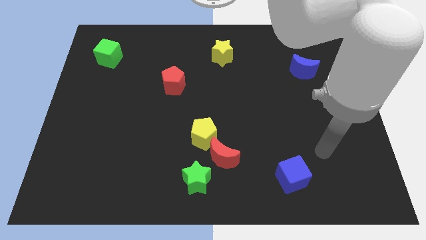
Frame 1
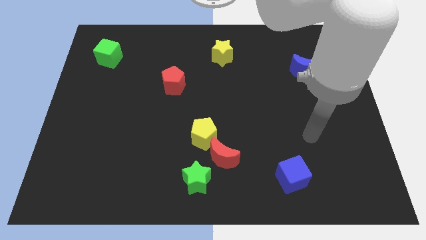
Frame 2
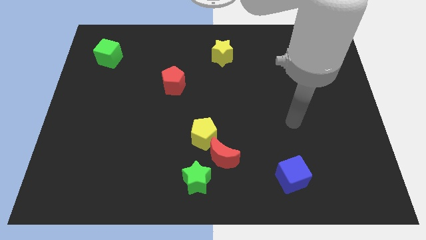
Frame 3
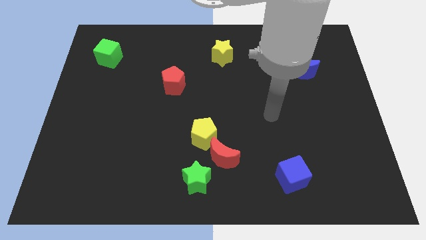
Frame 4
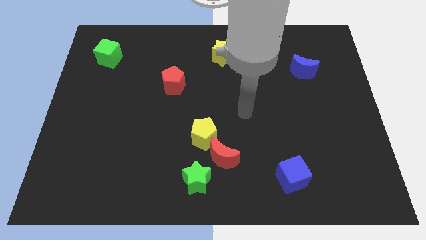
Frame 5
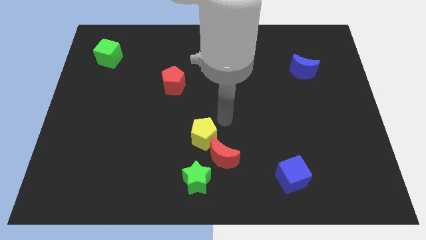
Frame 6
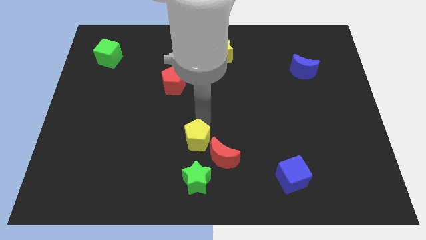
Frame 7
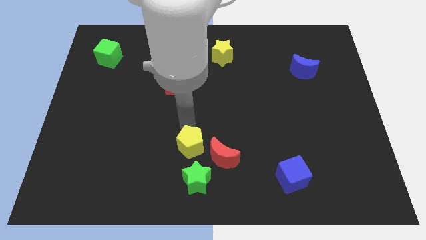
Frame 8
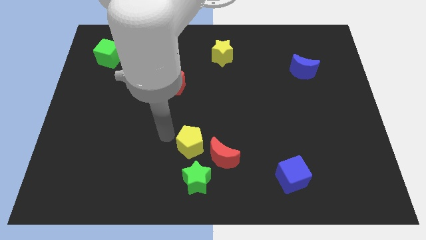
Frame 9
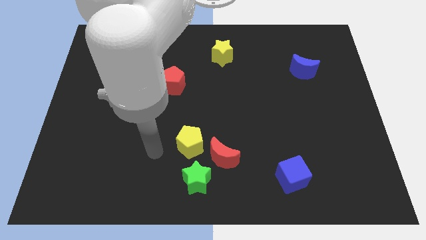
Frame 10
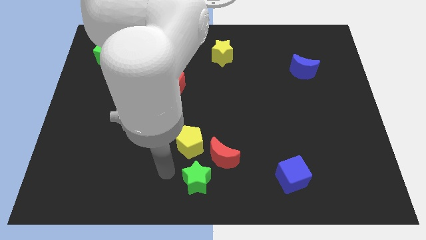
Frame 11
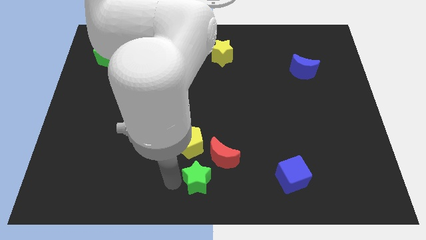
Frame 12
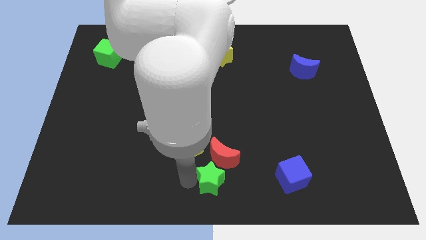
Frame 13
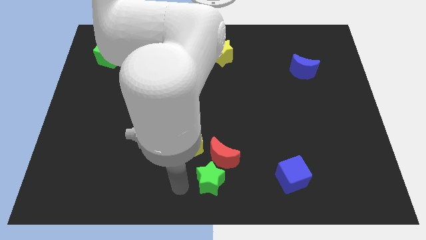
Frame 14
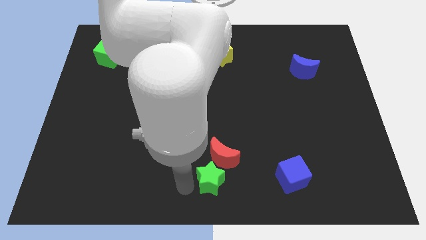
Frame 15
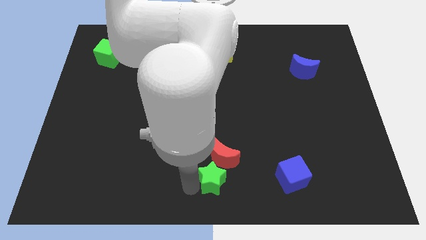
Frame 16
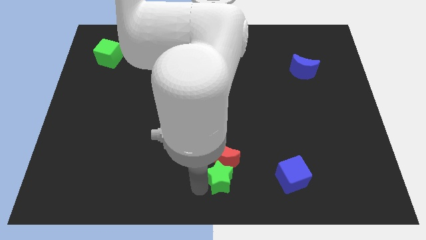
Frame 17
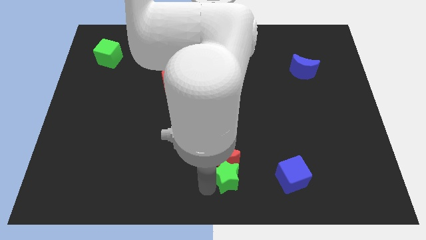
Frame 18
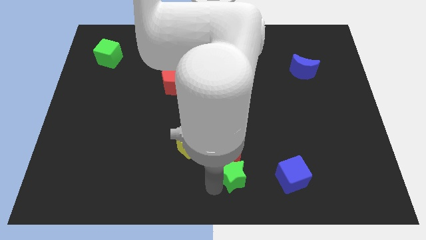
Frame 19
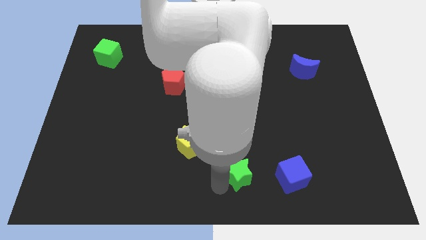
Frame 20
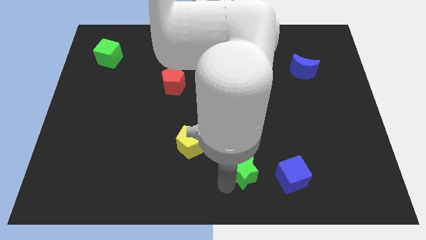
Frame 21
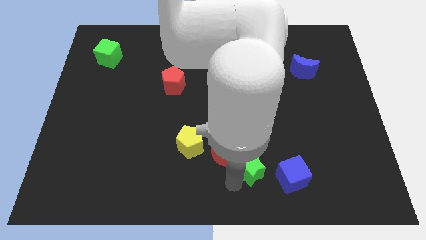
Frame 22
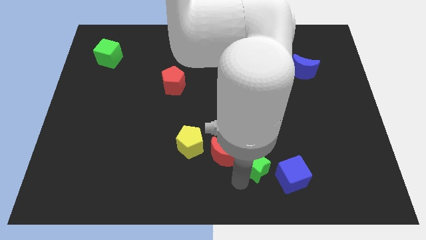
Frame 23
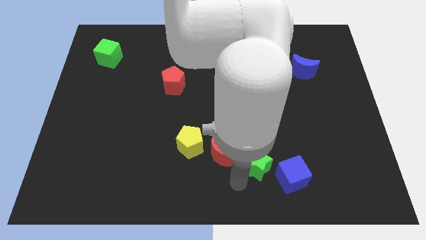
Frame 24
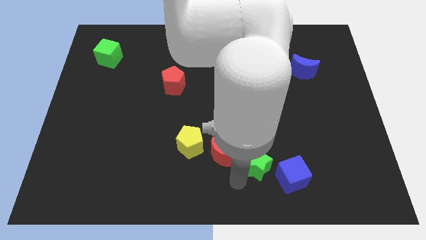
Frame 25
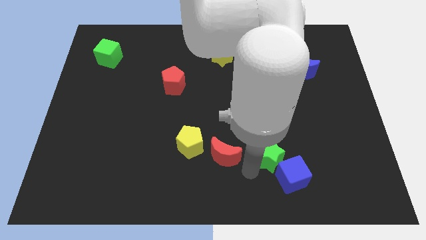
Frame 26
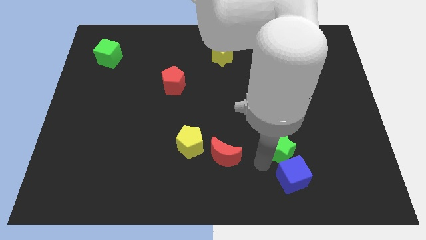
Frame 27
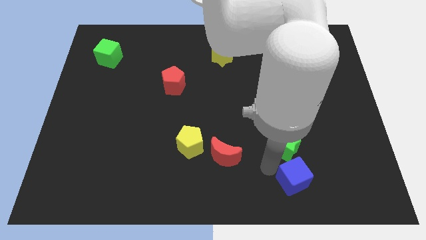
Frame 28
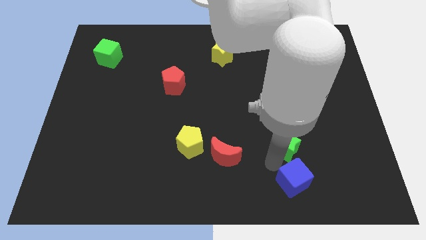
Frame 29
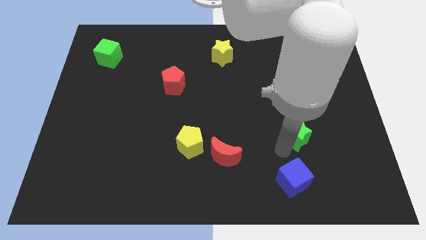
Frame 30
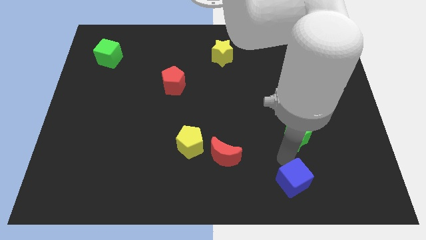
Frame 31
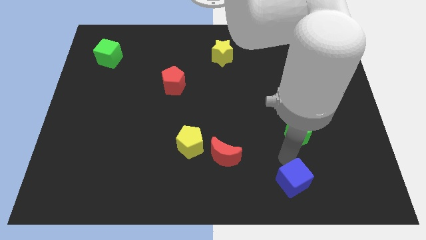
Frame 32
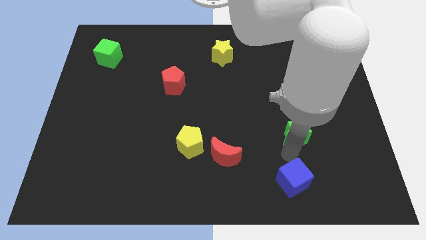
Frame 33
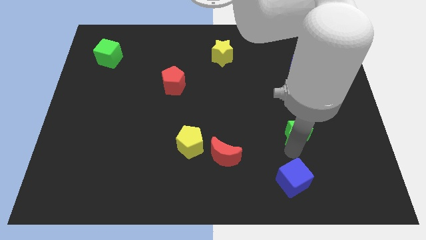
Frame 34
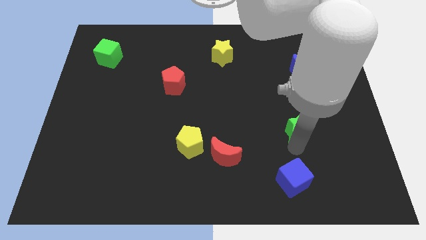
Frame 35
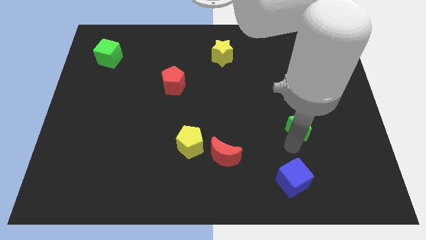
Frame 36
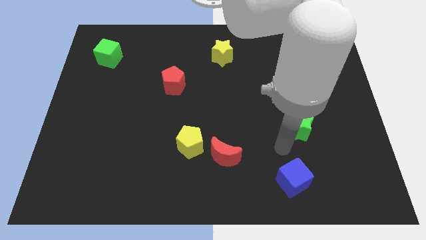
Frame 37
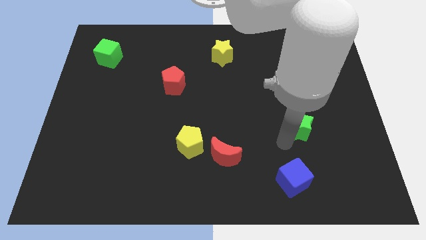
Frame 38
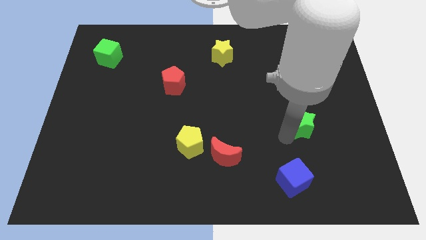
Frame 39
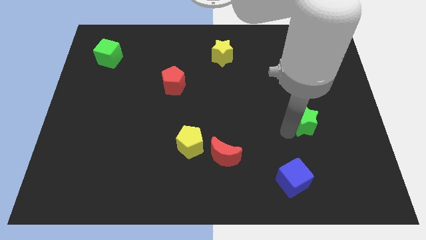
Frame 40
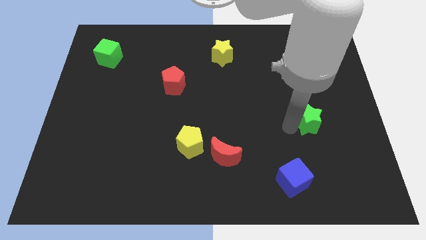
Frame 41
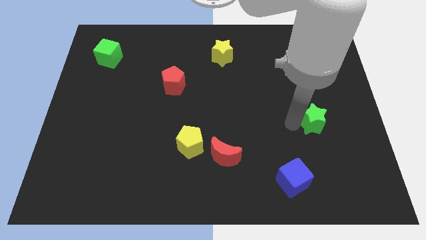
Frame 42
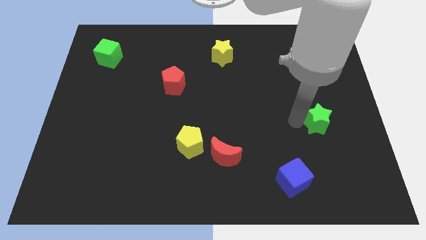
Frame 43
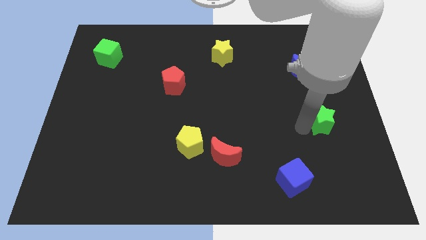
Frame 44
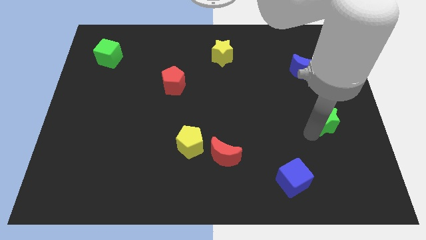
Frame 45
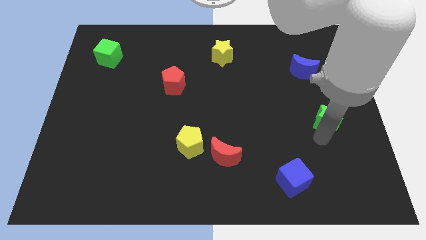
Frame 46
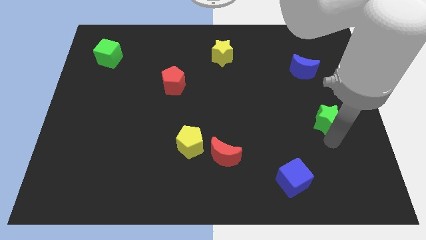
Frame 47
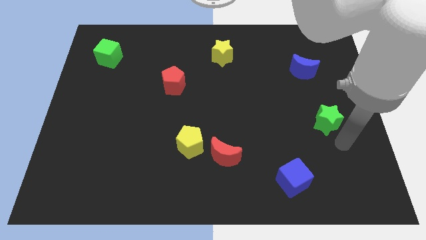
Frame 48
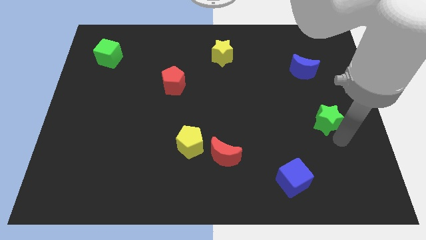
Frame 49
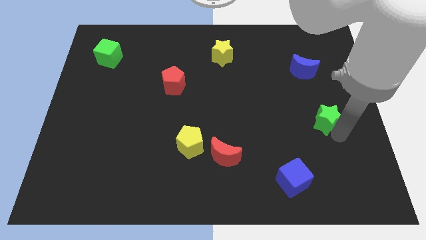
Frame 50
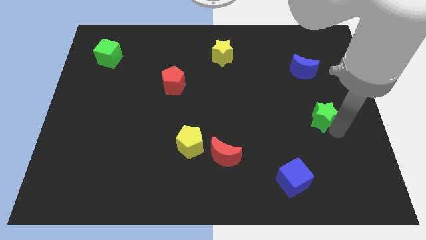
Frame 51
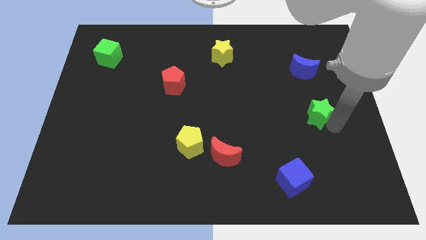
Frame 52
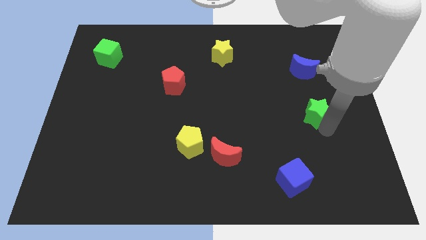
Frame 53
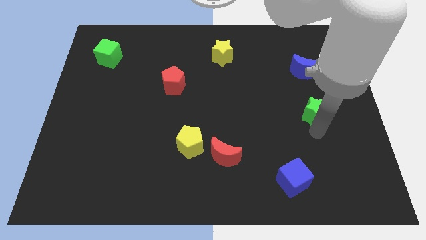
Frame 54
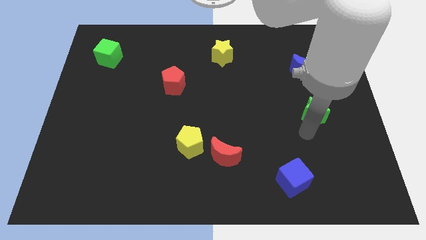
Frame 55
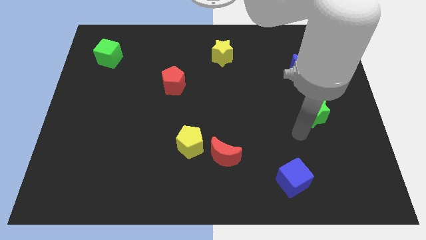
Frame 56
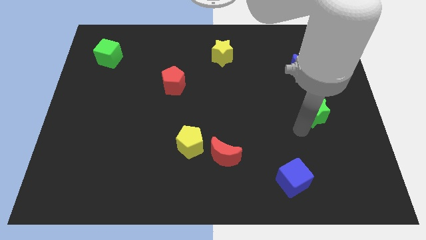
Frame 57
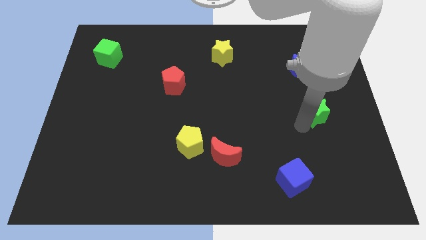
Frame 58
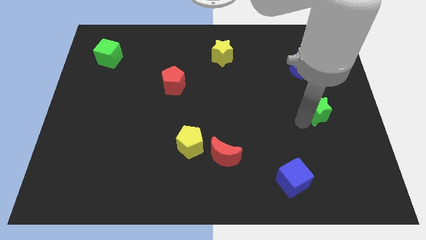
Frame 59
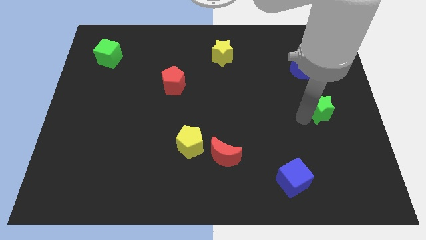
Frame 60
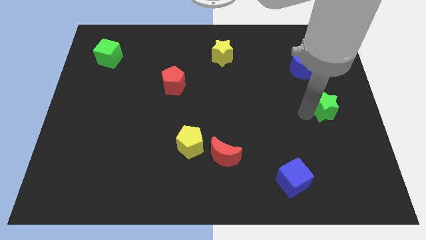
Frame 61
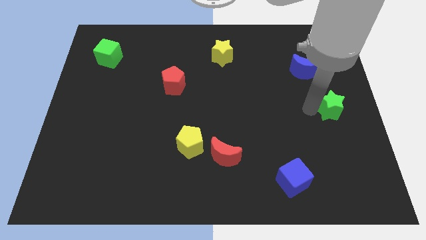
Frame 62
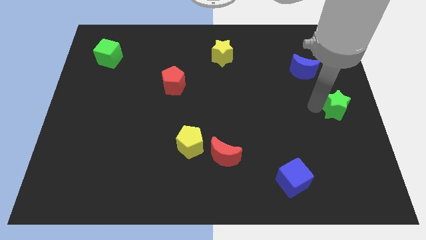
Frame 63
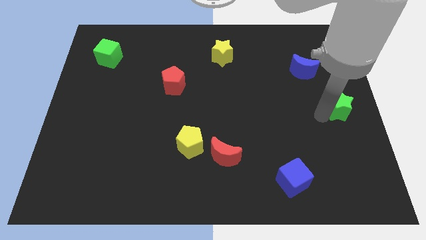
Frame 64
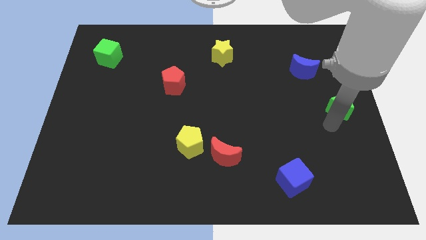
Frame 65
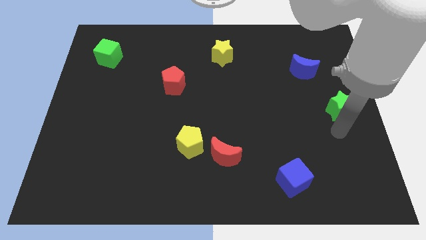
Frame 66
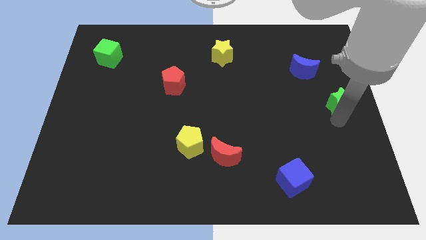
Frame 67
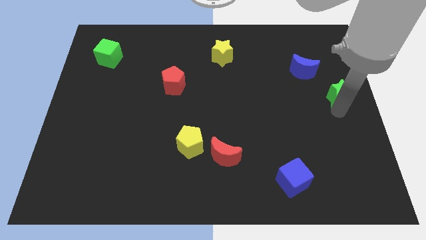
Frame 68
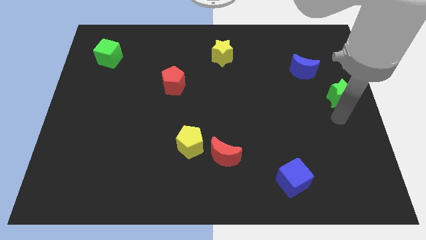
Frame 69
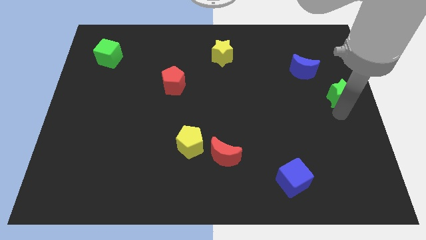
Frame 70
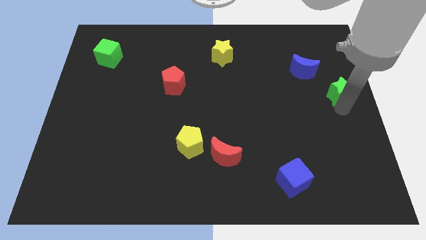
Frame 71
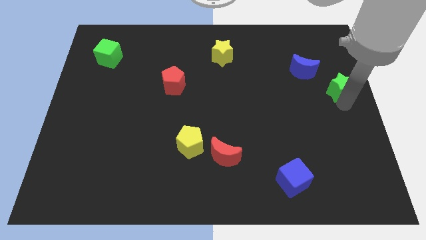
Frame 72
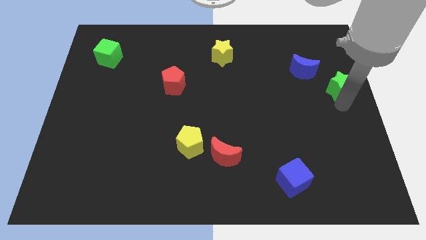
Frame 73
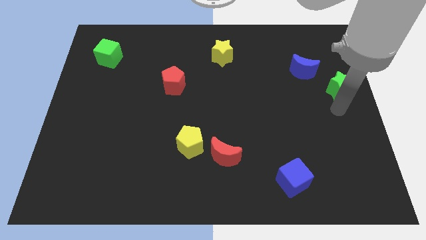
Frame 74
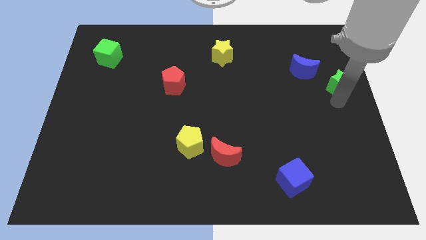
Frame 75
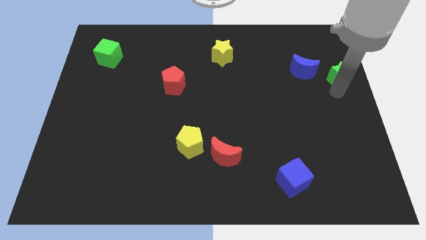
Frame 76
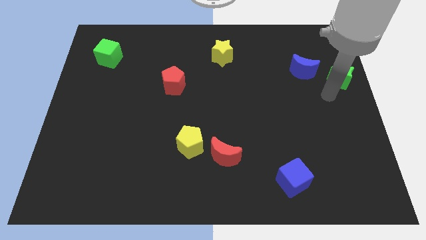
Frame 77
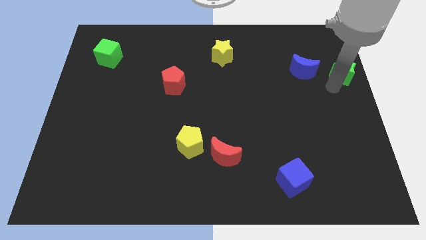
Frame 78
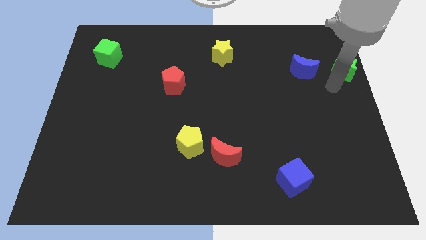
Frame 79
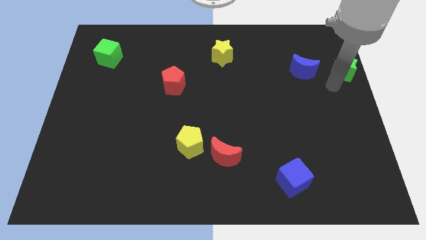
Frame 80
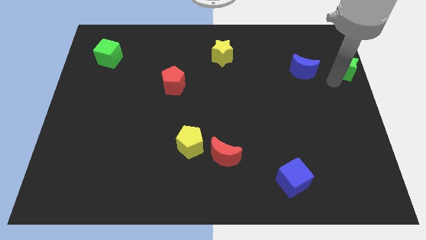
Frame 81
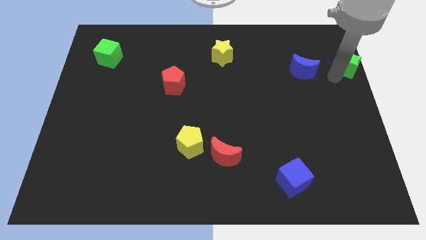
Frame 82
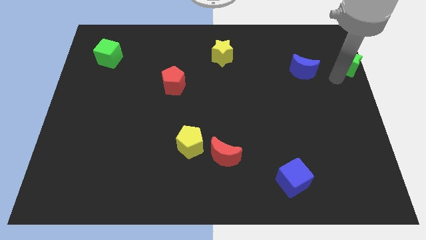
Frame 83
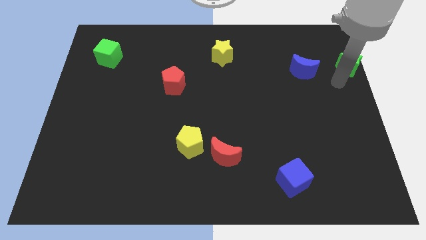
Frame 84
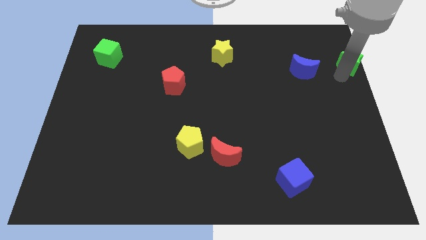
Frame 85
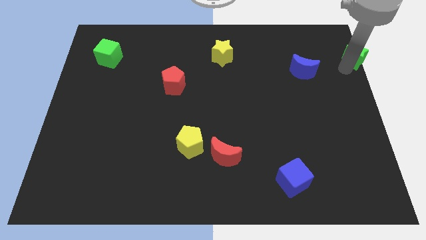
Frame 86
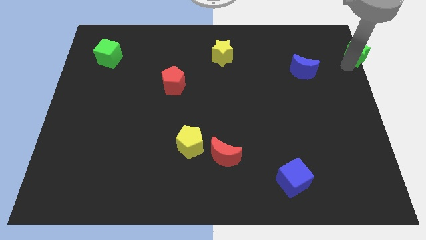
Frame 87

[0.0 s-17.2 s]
push the green star to the top right corner
